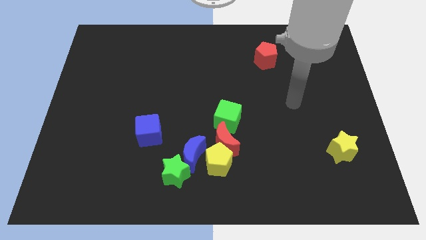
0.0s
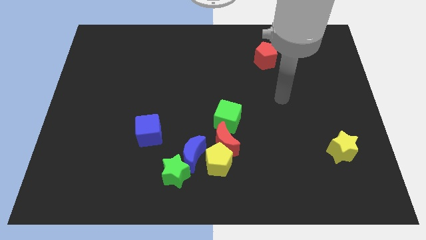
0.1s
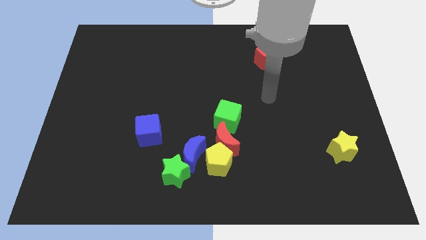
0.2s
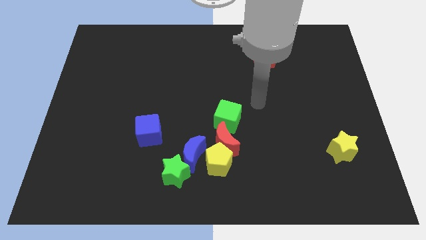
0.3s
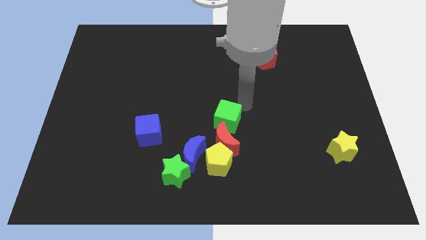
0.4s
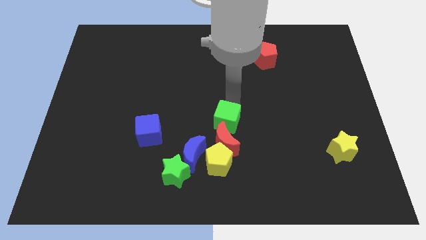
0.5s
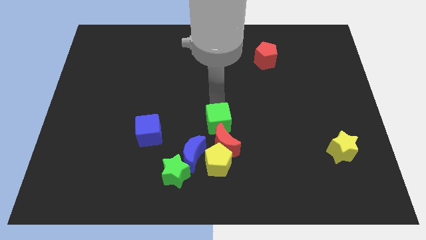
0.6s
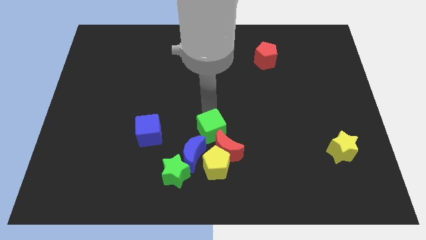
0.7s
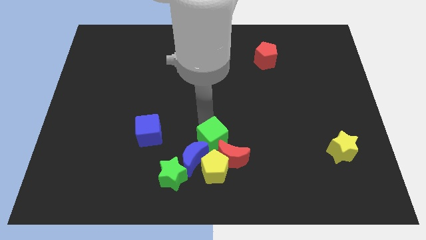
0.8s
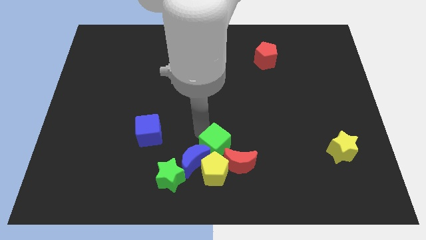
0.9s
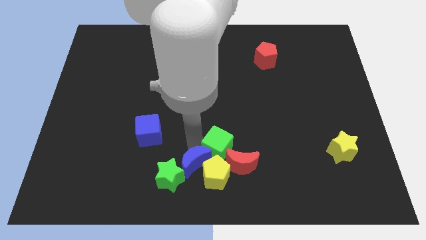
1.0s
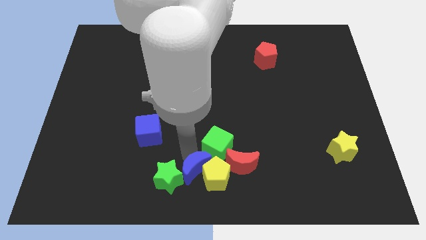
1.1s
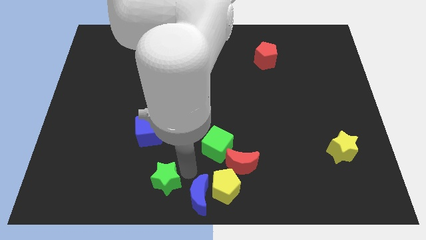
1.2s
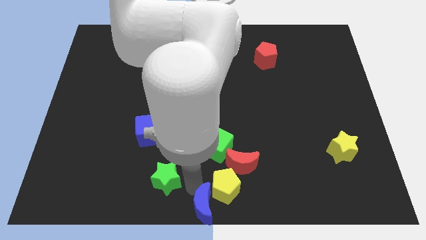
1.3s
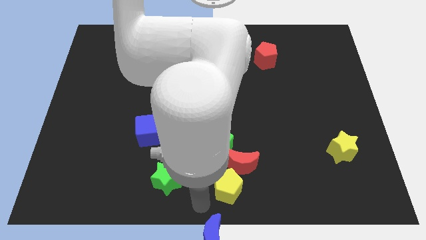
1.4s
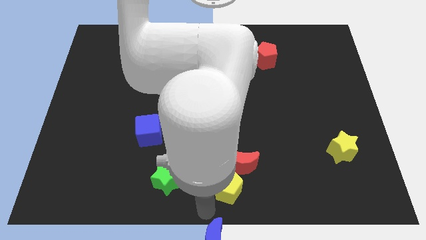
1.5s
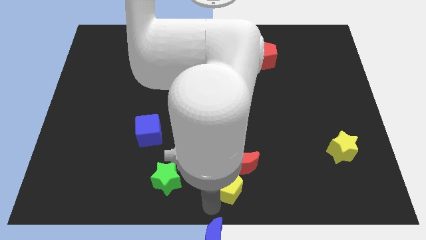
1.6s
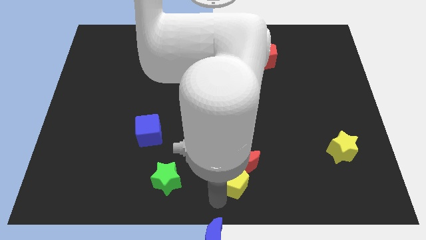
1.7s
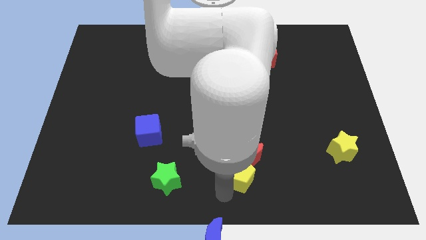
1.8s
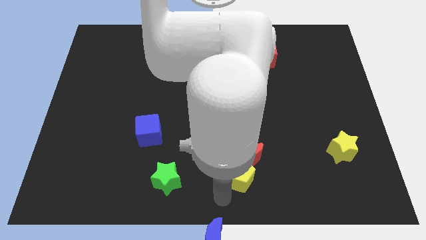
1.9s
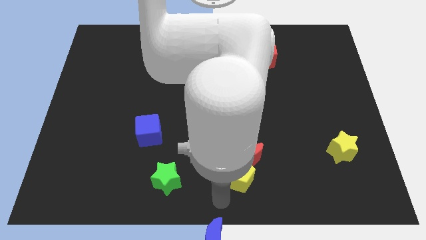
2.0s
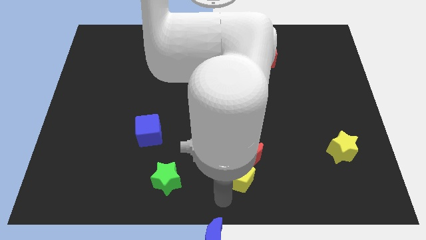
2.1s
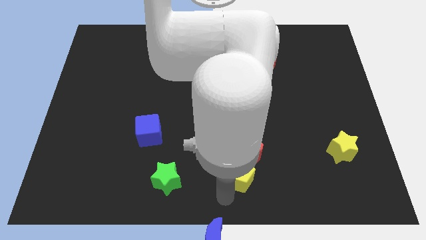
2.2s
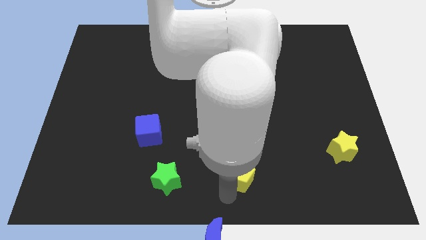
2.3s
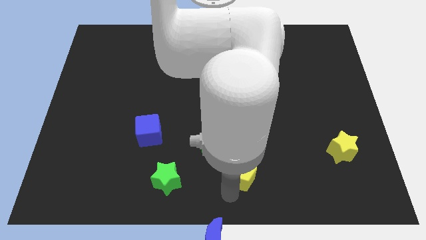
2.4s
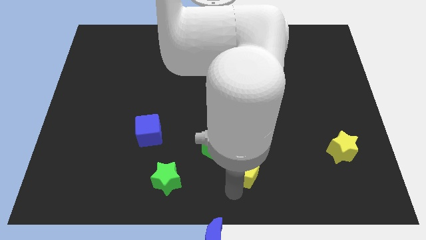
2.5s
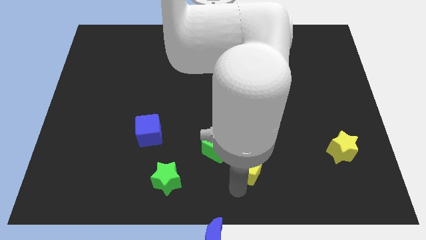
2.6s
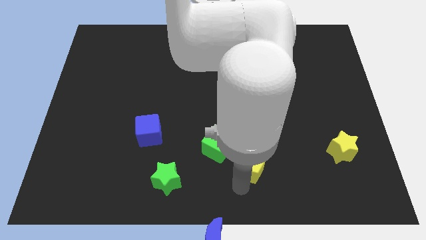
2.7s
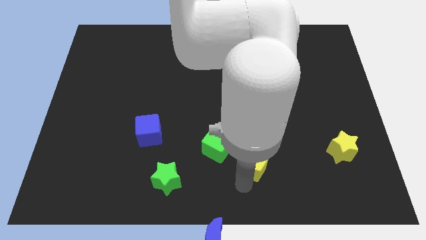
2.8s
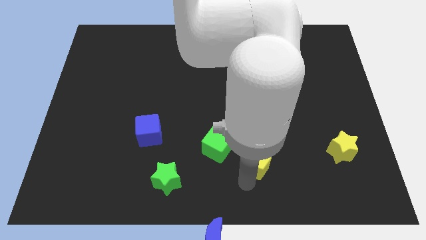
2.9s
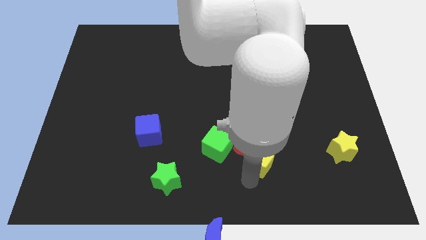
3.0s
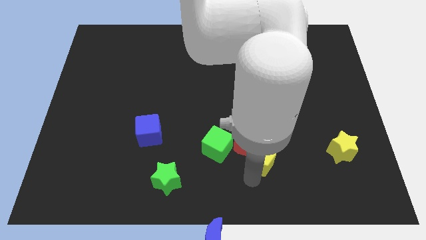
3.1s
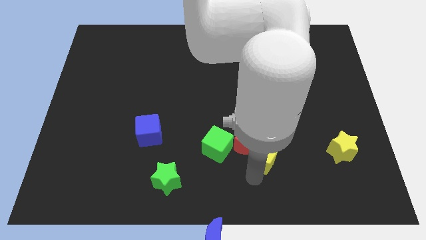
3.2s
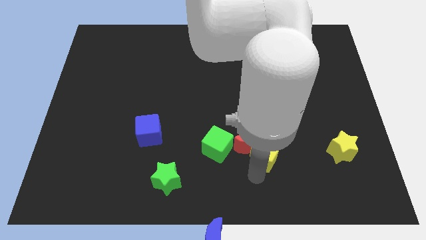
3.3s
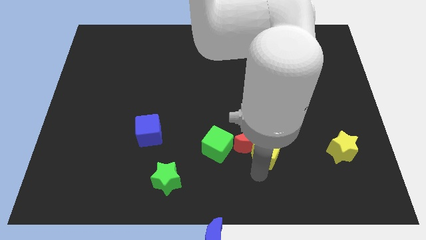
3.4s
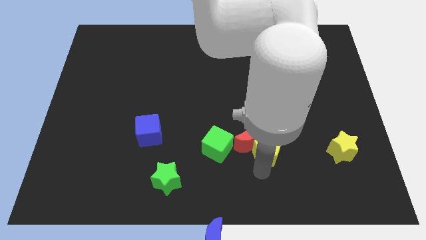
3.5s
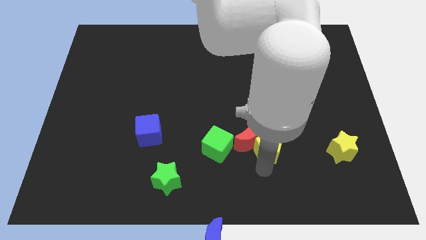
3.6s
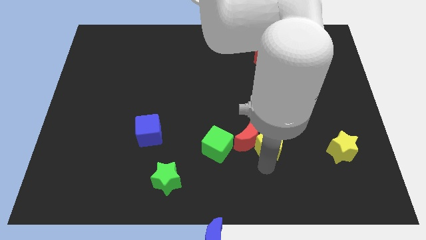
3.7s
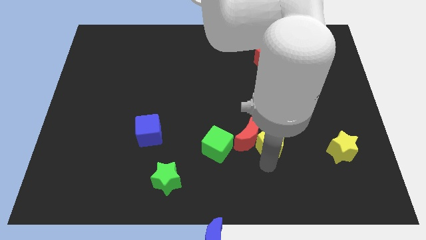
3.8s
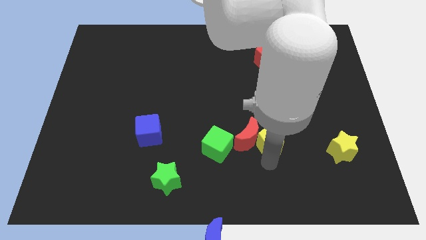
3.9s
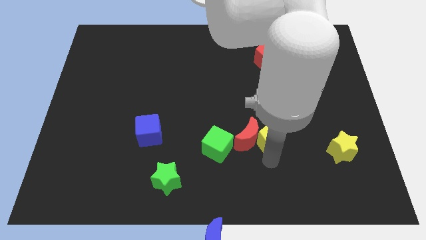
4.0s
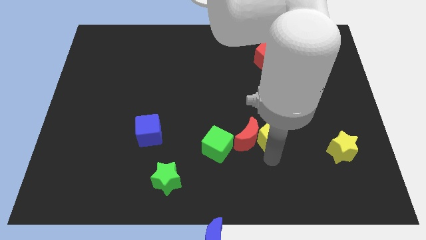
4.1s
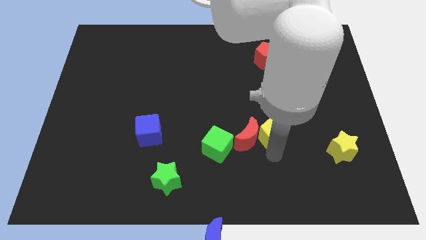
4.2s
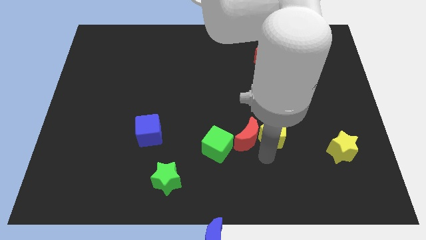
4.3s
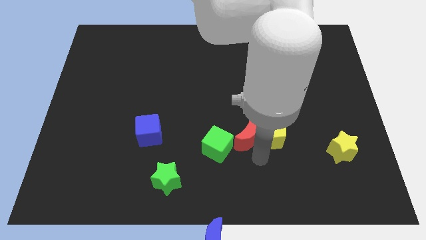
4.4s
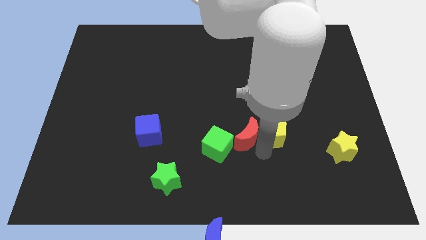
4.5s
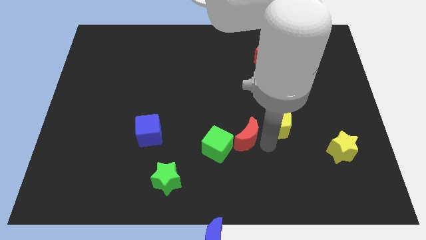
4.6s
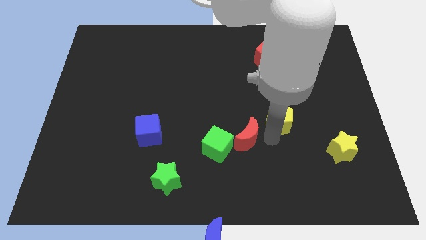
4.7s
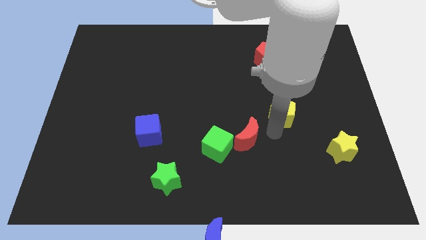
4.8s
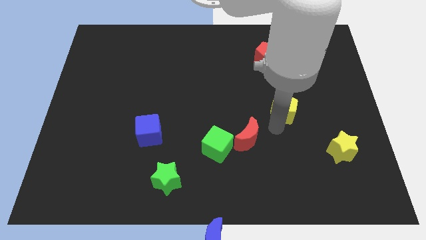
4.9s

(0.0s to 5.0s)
slide the yellow pentagon upwards and then to the right

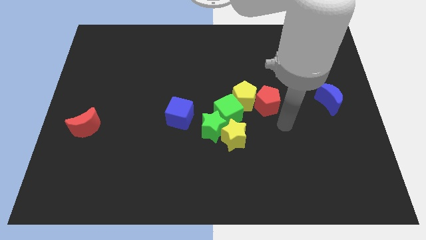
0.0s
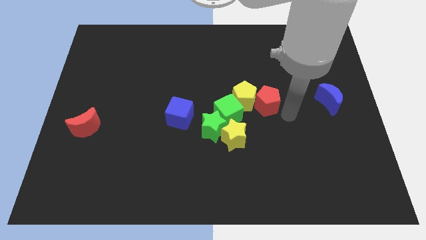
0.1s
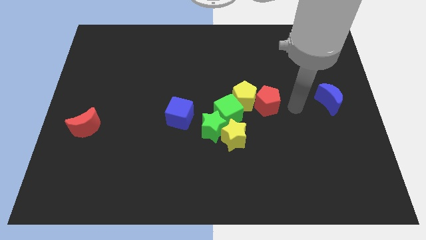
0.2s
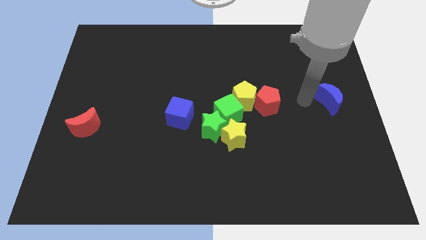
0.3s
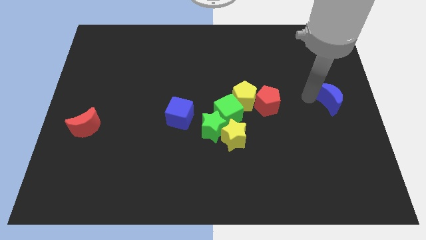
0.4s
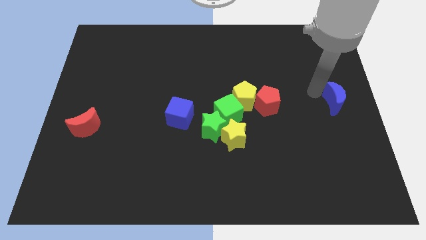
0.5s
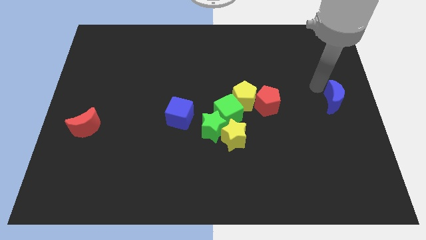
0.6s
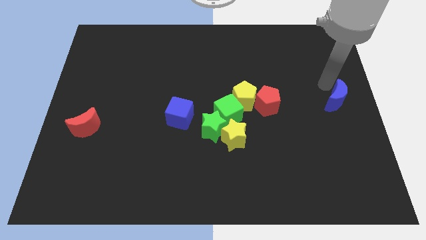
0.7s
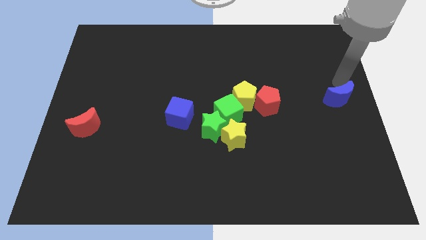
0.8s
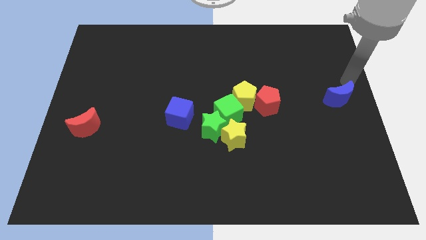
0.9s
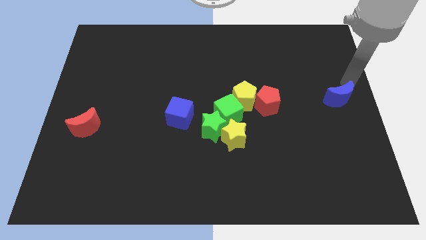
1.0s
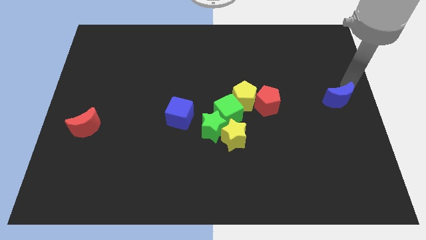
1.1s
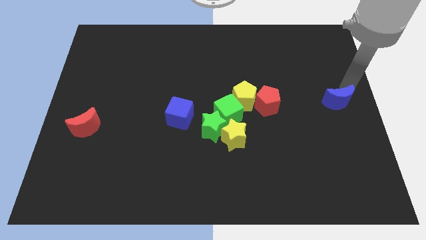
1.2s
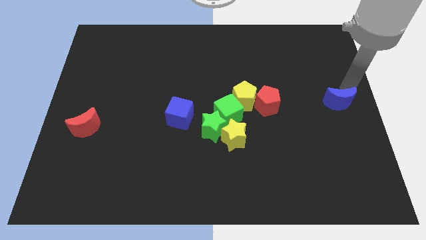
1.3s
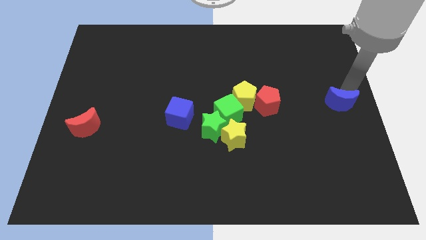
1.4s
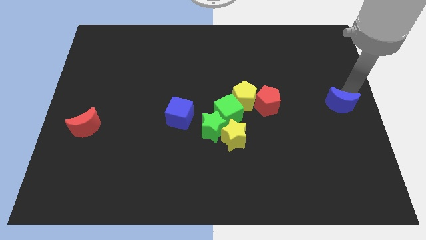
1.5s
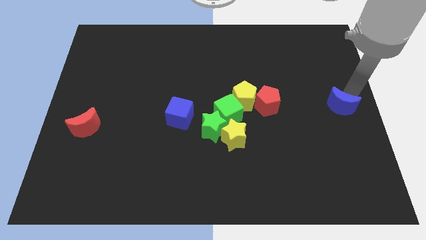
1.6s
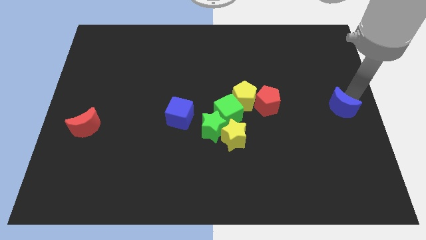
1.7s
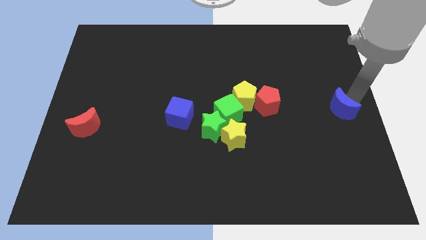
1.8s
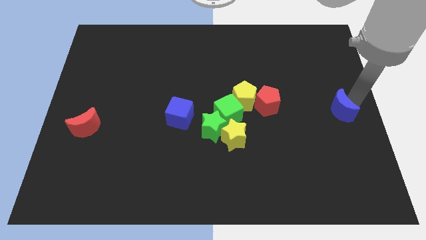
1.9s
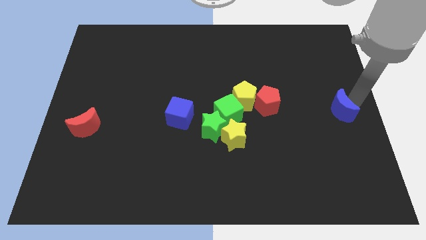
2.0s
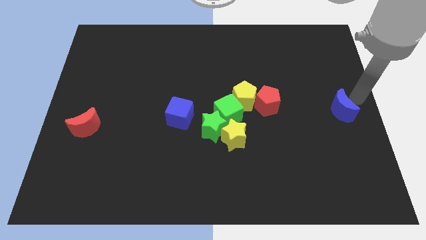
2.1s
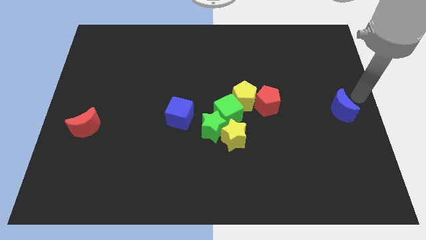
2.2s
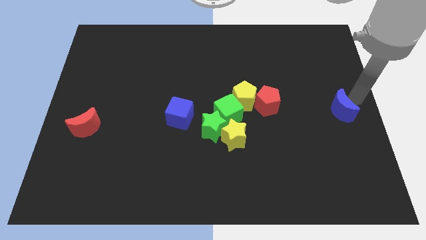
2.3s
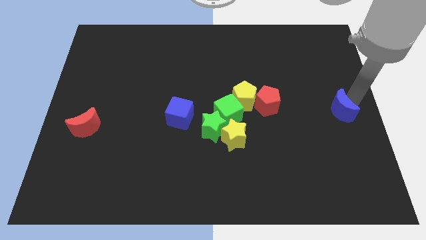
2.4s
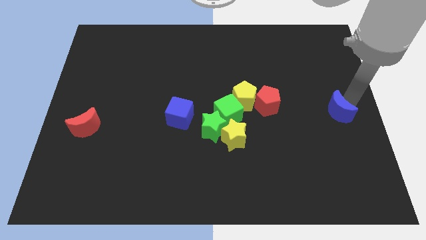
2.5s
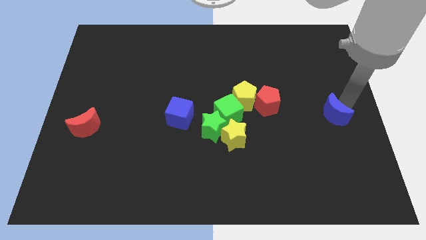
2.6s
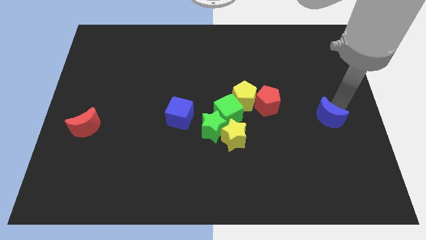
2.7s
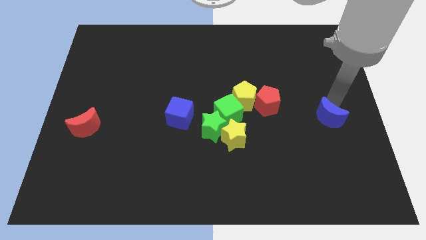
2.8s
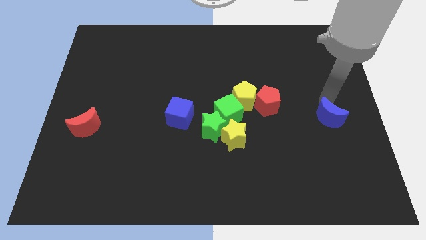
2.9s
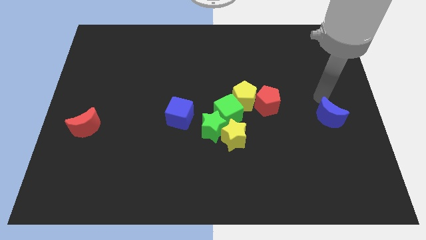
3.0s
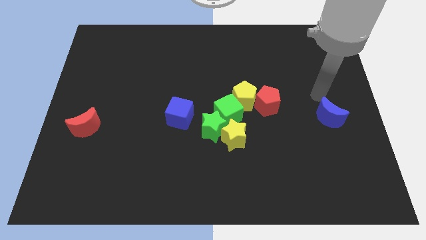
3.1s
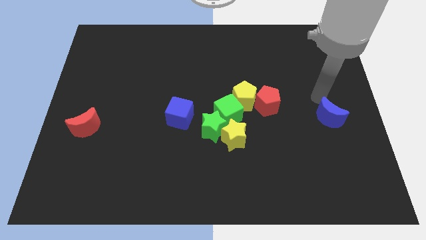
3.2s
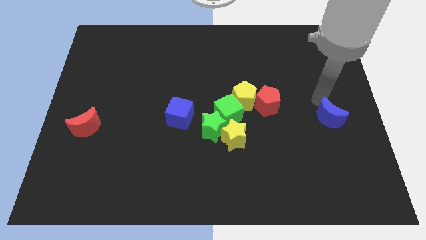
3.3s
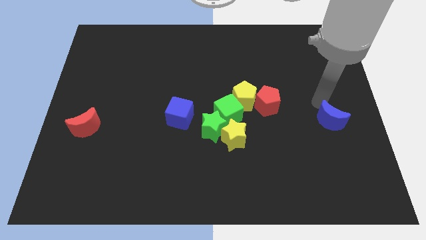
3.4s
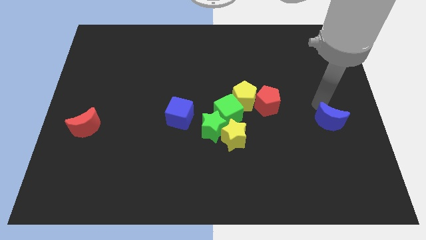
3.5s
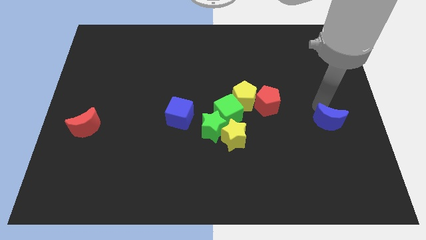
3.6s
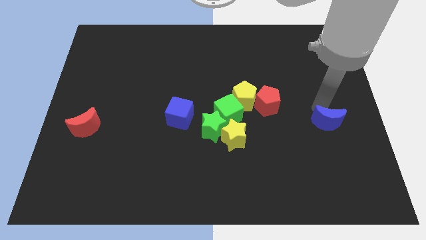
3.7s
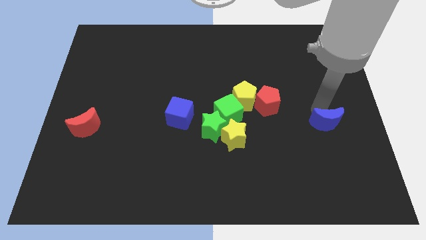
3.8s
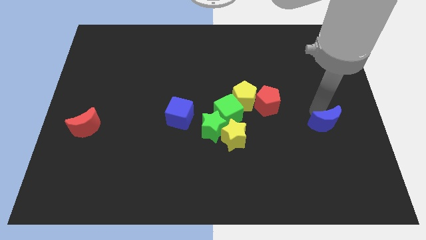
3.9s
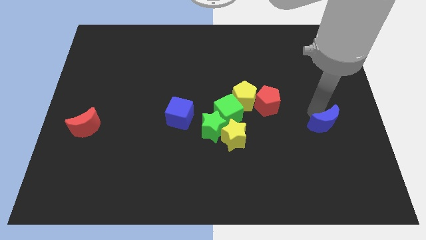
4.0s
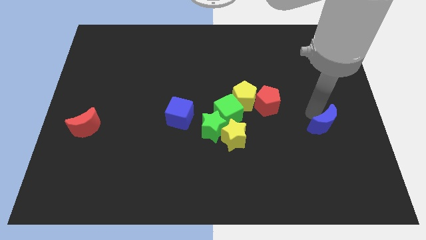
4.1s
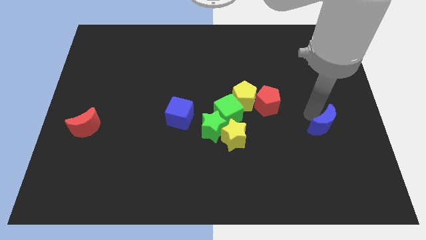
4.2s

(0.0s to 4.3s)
move the blue moon downwards somewhat
